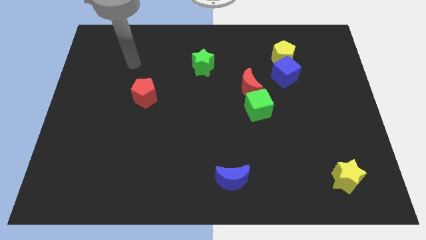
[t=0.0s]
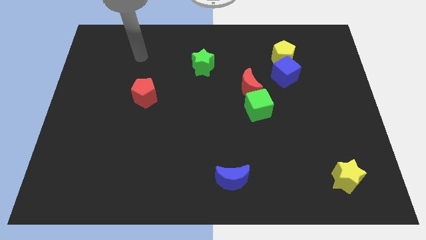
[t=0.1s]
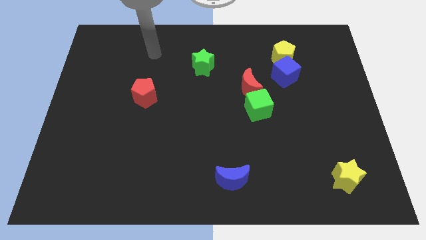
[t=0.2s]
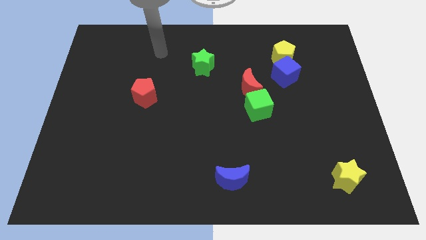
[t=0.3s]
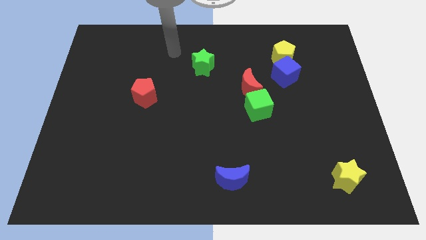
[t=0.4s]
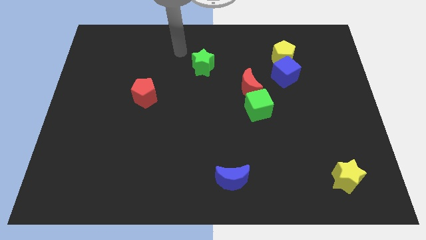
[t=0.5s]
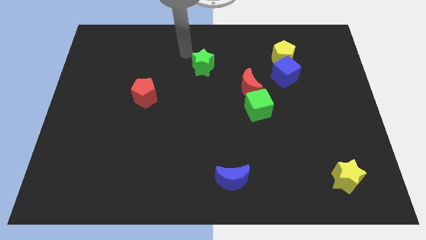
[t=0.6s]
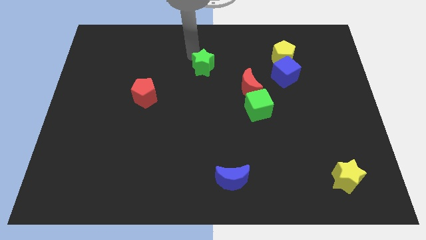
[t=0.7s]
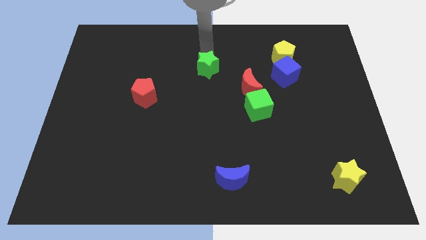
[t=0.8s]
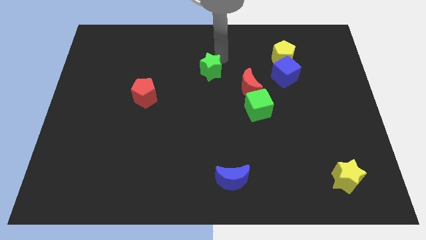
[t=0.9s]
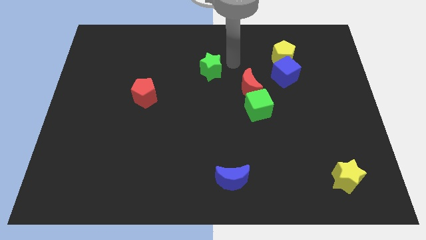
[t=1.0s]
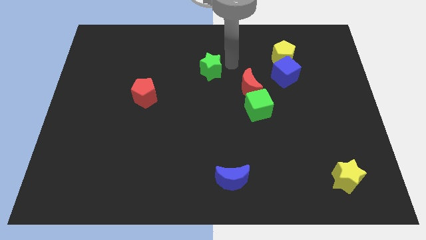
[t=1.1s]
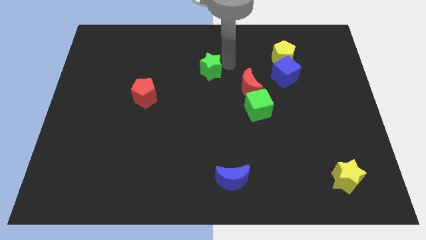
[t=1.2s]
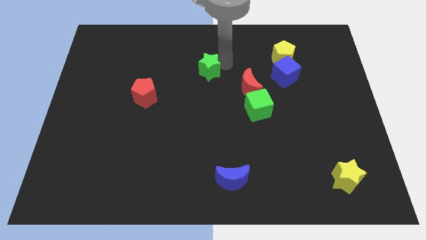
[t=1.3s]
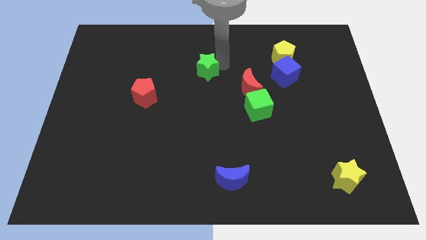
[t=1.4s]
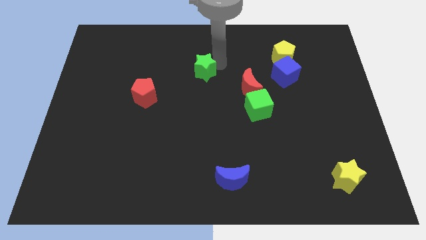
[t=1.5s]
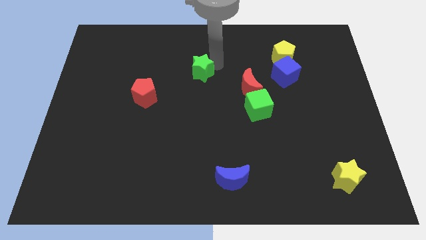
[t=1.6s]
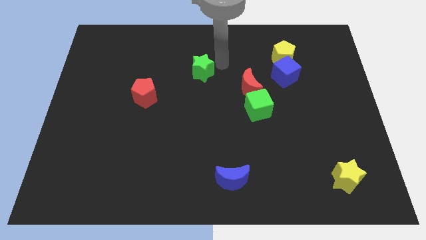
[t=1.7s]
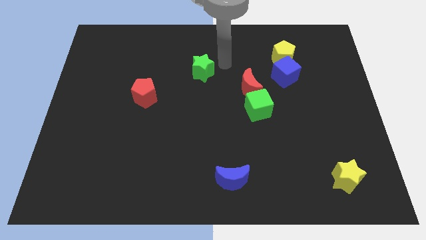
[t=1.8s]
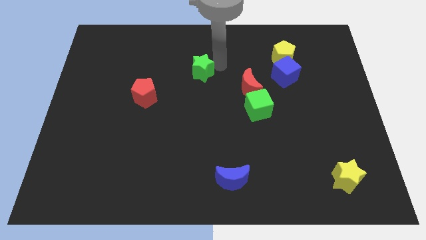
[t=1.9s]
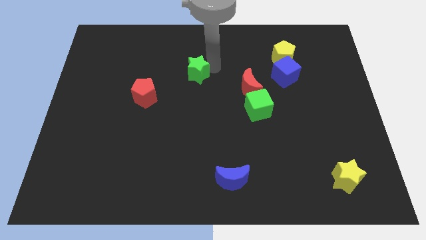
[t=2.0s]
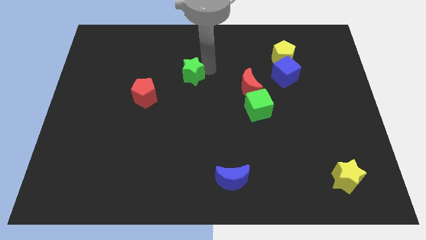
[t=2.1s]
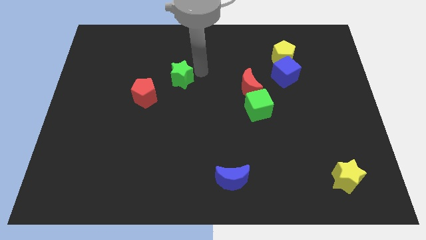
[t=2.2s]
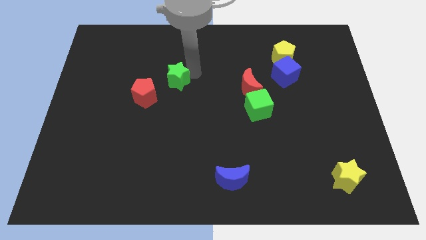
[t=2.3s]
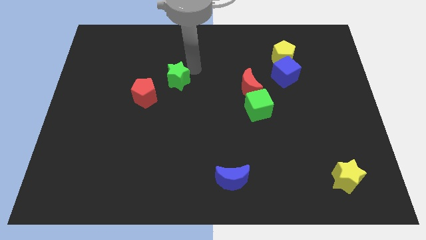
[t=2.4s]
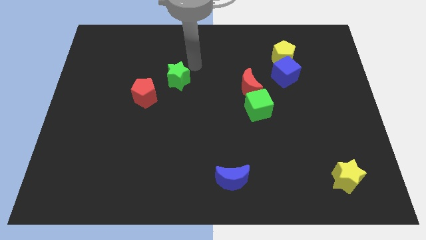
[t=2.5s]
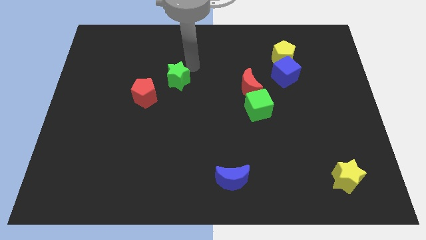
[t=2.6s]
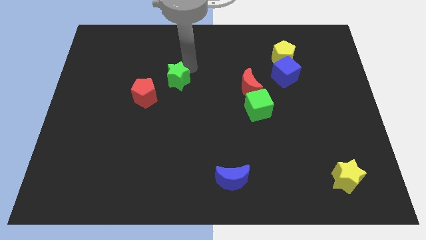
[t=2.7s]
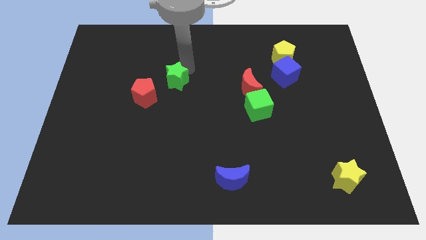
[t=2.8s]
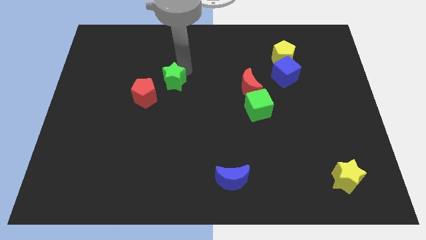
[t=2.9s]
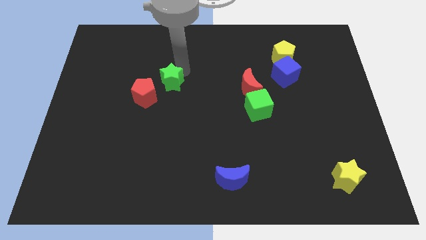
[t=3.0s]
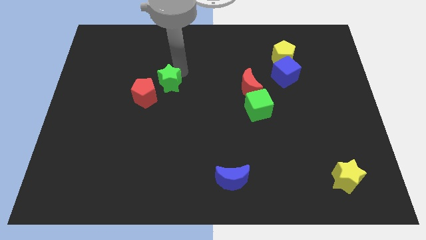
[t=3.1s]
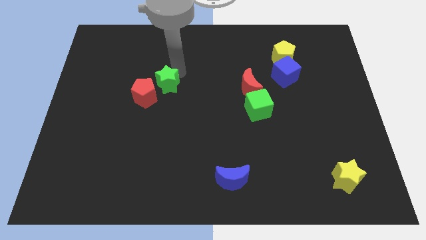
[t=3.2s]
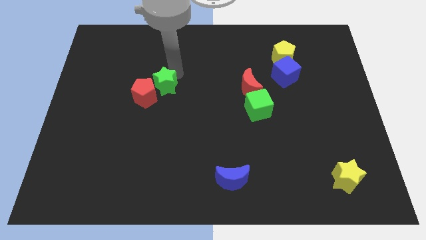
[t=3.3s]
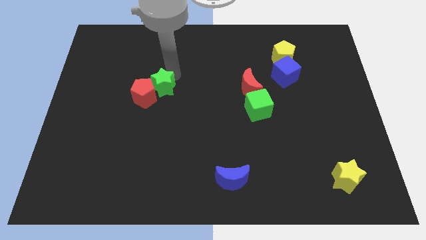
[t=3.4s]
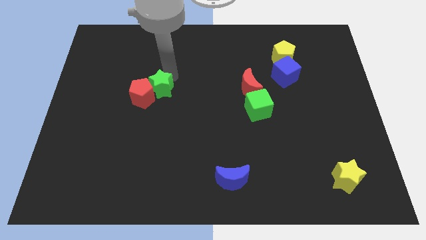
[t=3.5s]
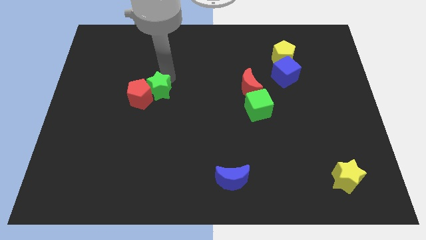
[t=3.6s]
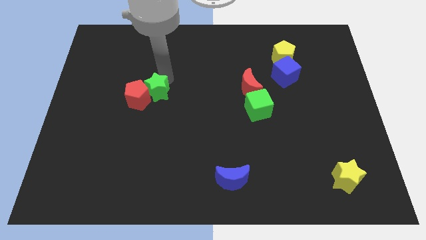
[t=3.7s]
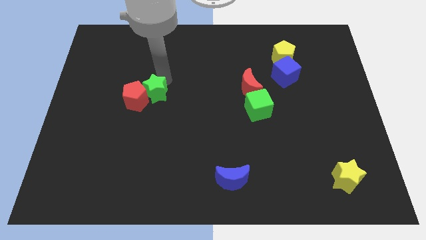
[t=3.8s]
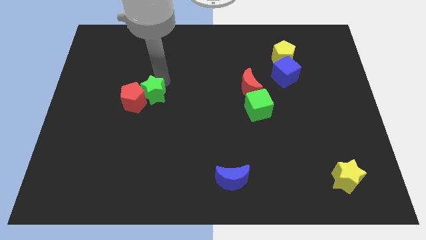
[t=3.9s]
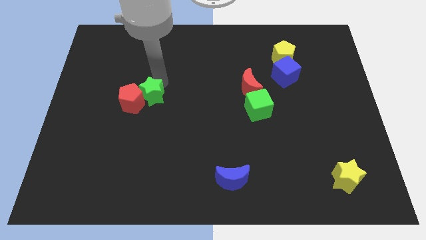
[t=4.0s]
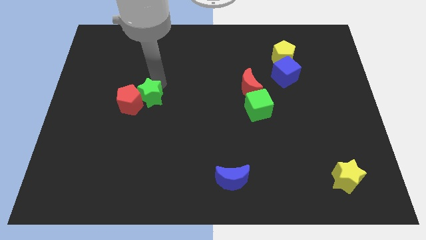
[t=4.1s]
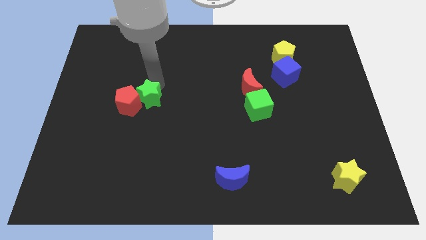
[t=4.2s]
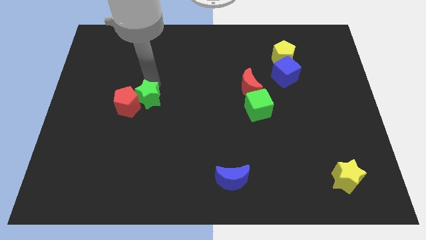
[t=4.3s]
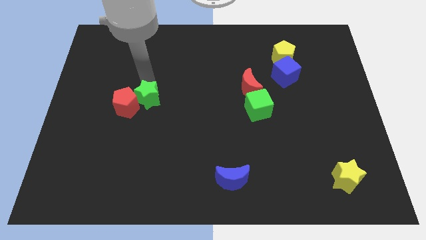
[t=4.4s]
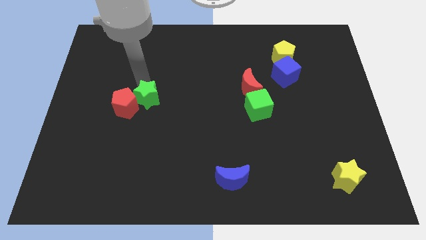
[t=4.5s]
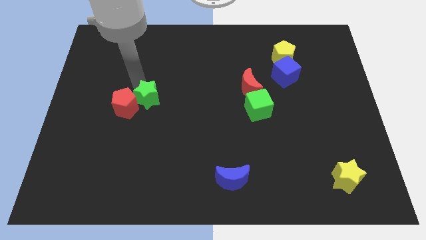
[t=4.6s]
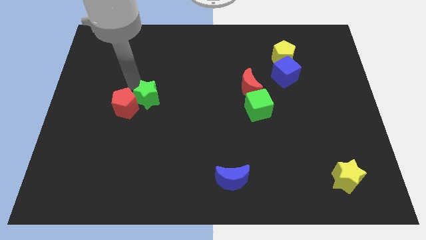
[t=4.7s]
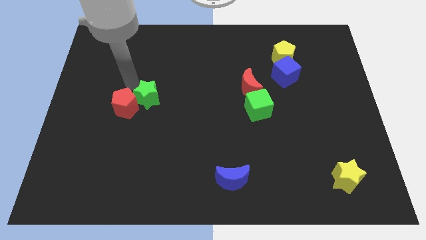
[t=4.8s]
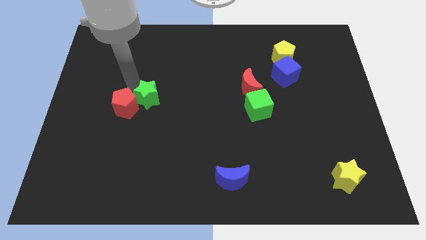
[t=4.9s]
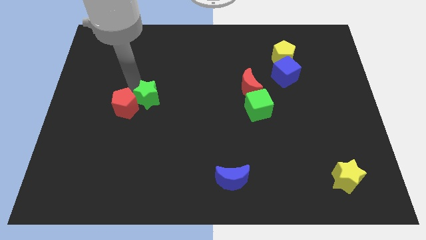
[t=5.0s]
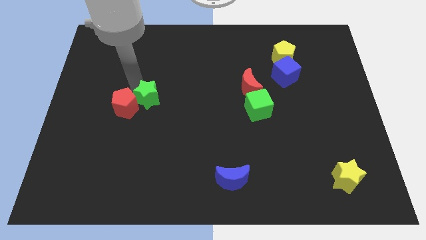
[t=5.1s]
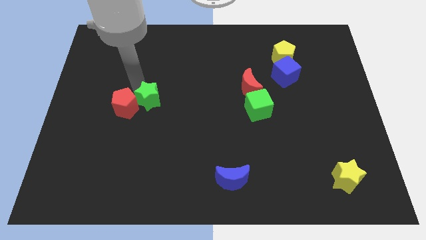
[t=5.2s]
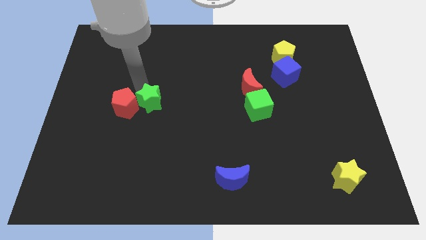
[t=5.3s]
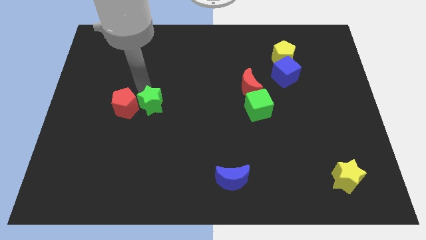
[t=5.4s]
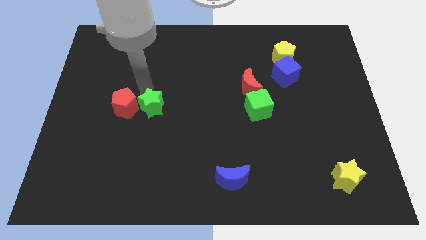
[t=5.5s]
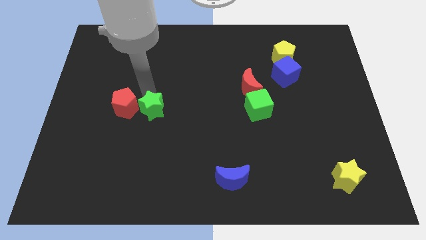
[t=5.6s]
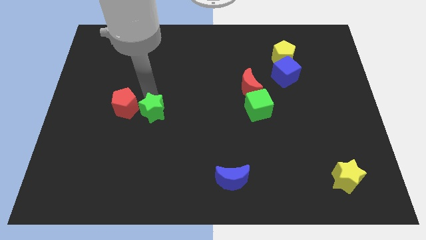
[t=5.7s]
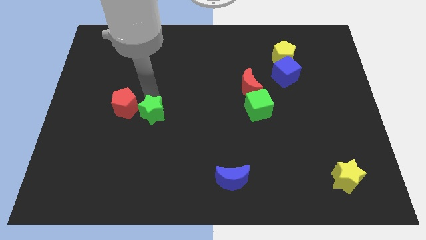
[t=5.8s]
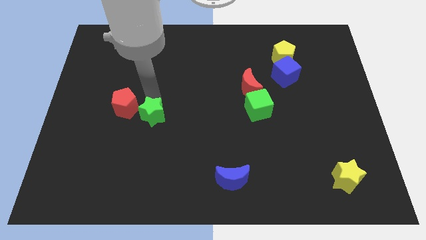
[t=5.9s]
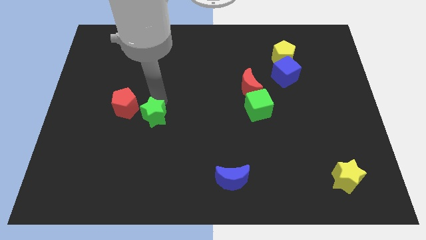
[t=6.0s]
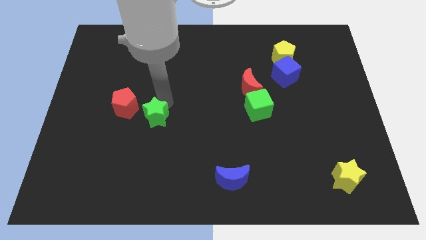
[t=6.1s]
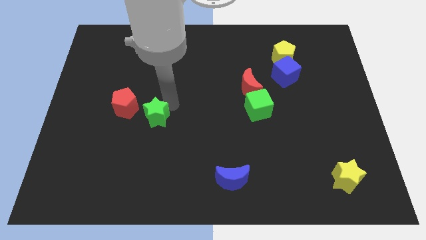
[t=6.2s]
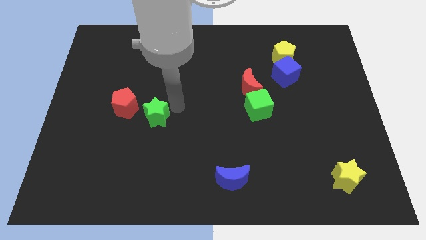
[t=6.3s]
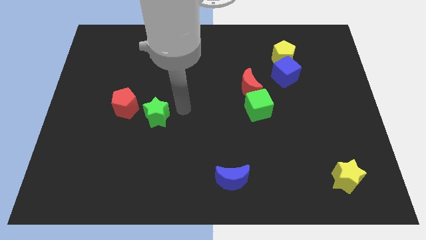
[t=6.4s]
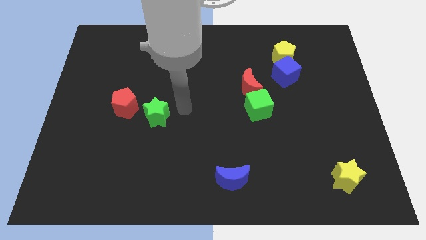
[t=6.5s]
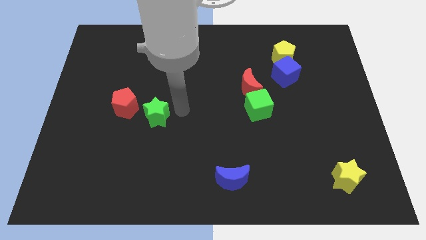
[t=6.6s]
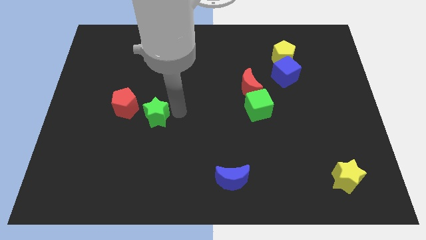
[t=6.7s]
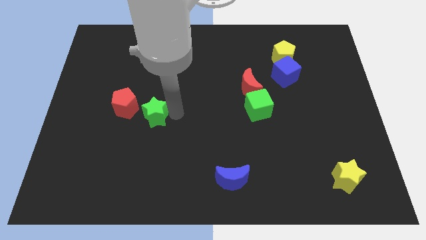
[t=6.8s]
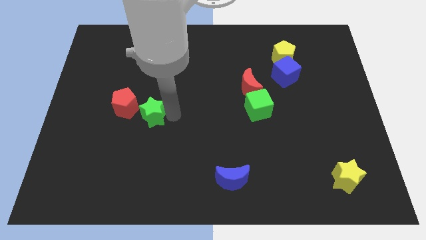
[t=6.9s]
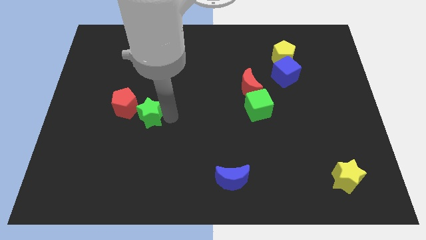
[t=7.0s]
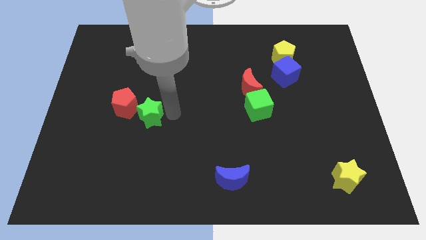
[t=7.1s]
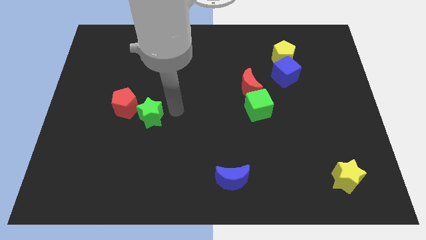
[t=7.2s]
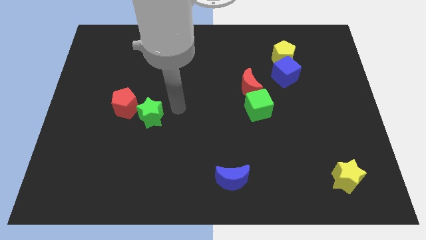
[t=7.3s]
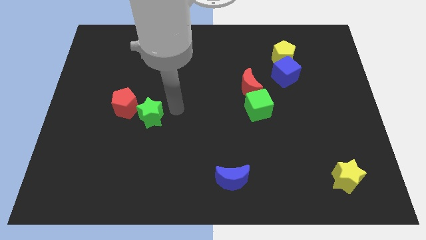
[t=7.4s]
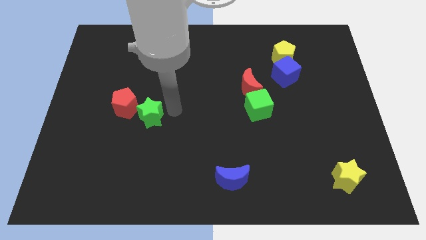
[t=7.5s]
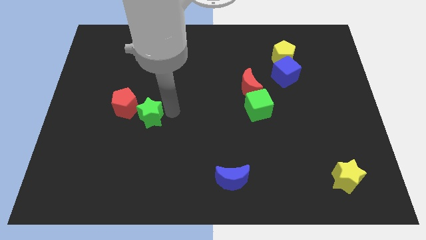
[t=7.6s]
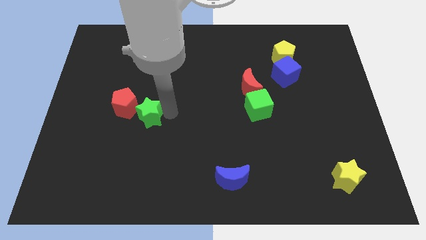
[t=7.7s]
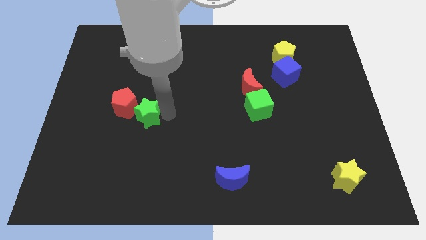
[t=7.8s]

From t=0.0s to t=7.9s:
slide the green star down and left diagonally

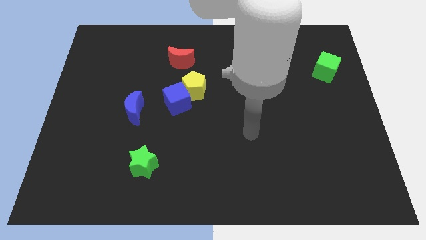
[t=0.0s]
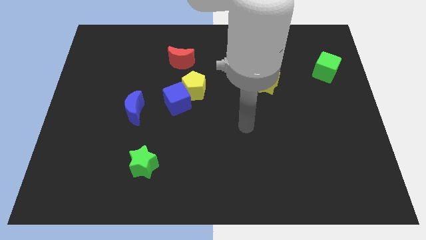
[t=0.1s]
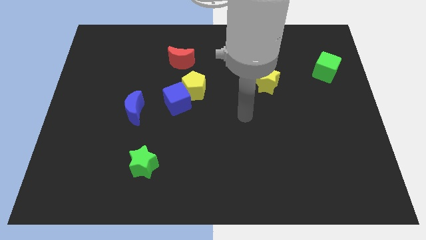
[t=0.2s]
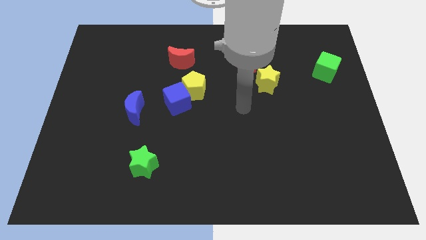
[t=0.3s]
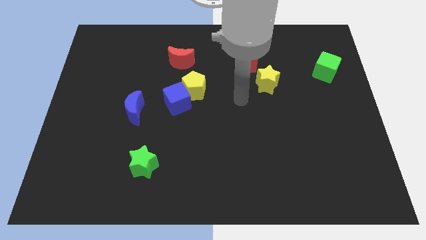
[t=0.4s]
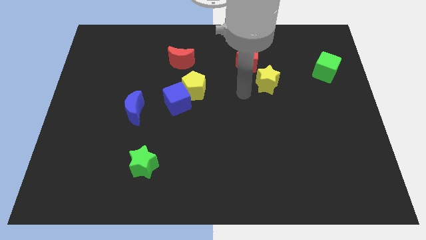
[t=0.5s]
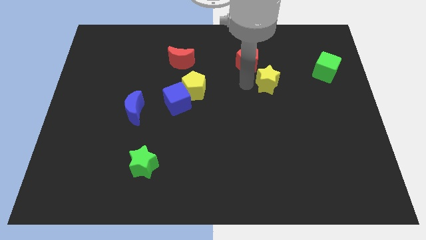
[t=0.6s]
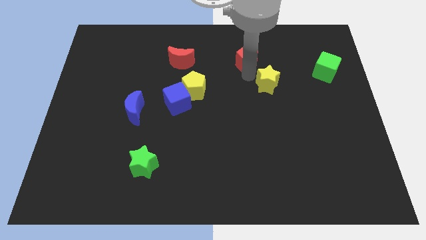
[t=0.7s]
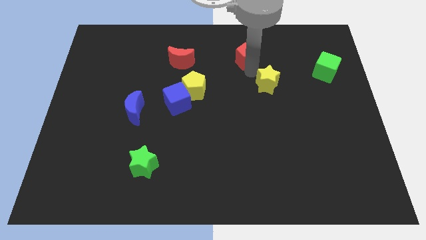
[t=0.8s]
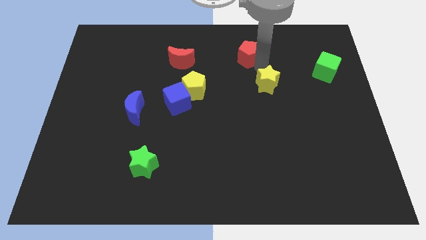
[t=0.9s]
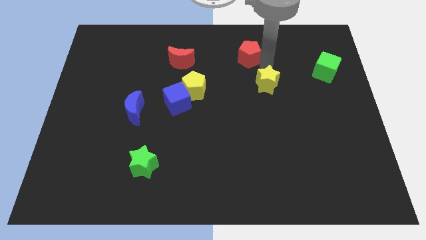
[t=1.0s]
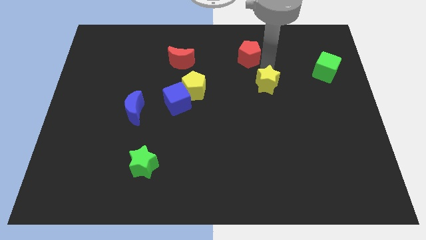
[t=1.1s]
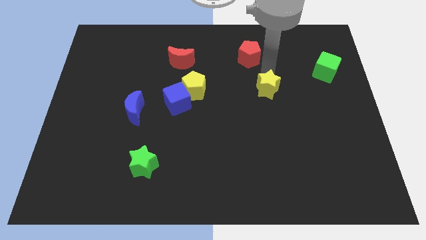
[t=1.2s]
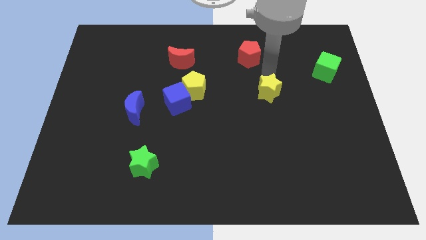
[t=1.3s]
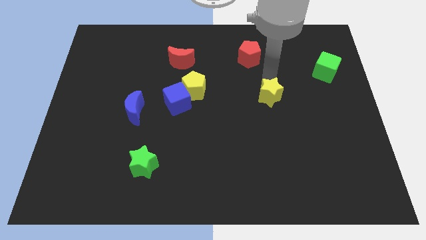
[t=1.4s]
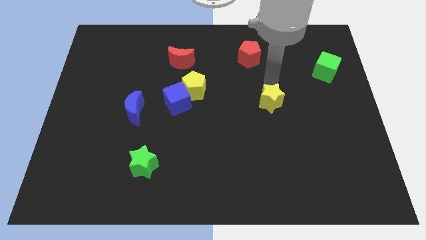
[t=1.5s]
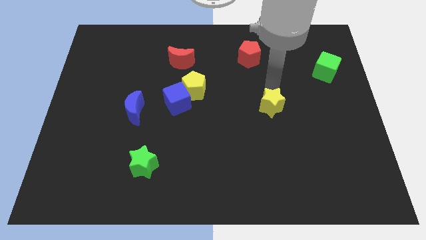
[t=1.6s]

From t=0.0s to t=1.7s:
slightly move the yellow star down
